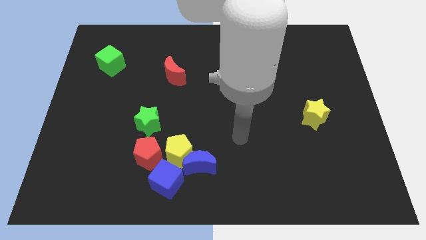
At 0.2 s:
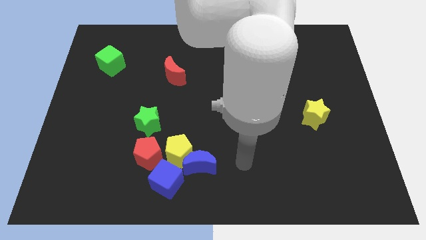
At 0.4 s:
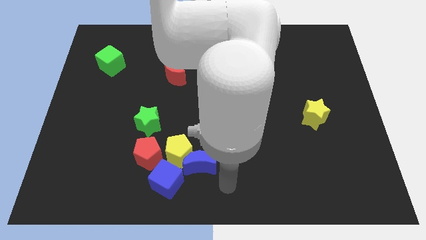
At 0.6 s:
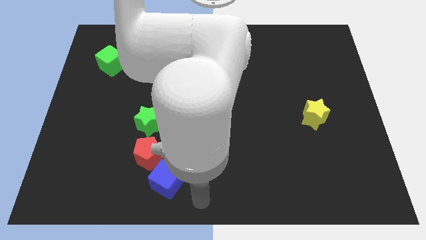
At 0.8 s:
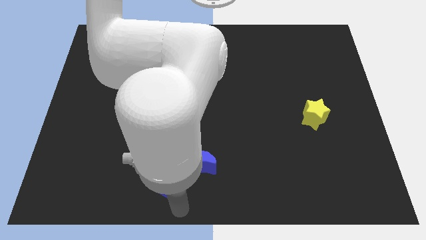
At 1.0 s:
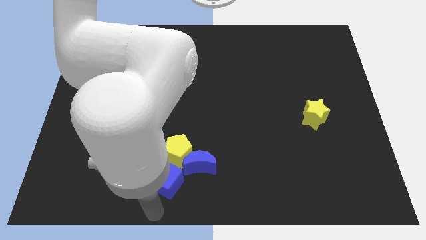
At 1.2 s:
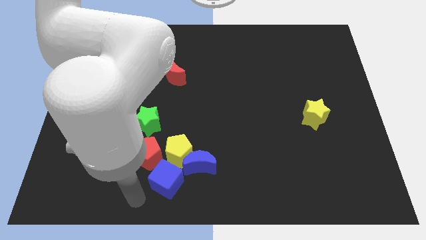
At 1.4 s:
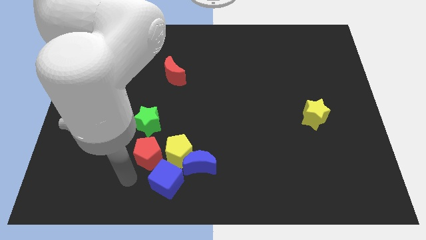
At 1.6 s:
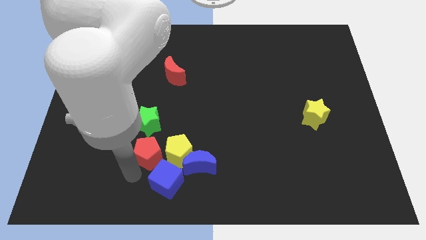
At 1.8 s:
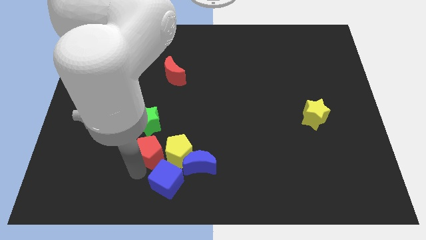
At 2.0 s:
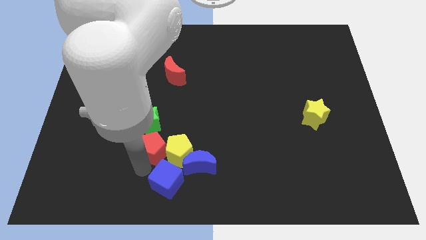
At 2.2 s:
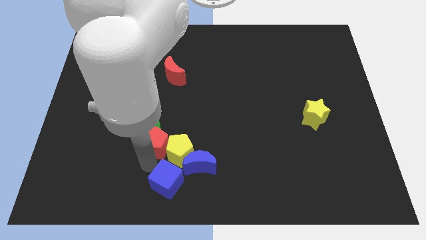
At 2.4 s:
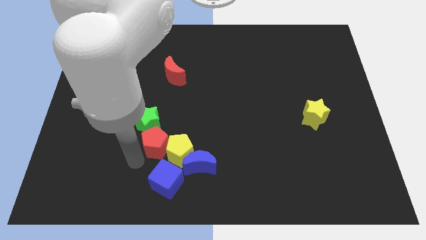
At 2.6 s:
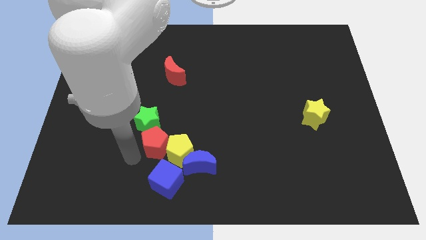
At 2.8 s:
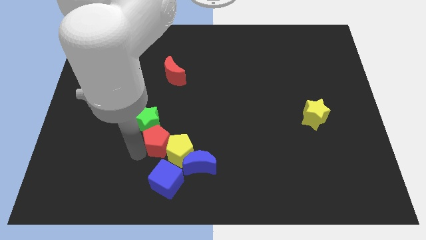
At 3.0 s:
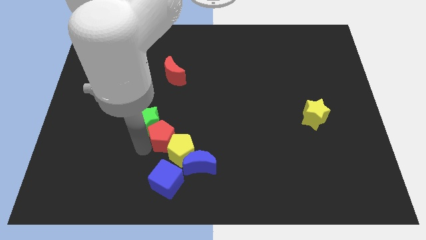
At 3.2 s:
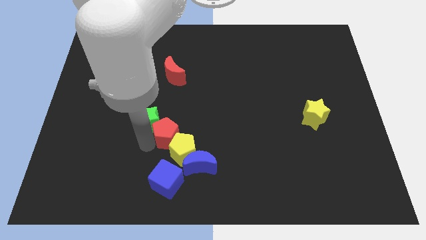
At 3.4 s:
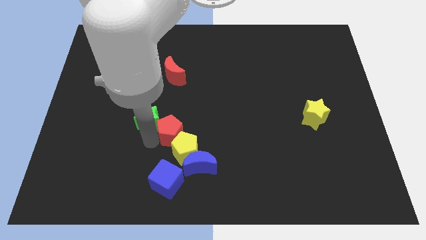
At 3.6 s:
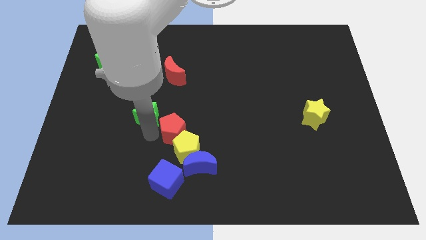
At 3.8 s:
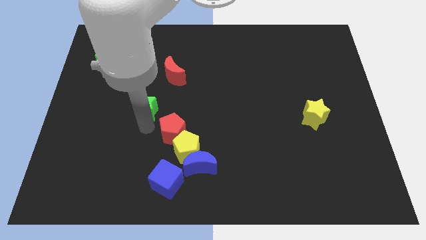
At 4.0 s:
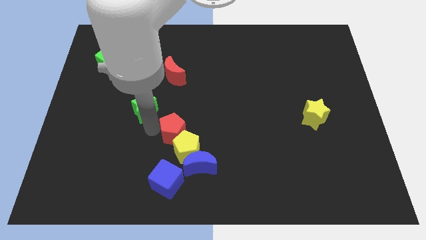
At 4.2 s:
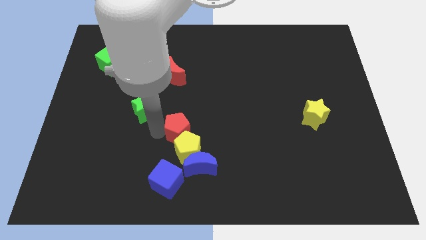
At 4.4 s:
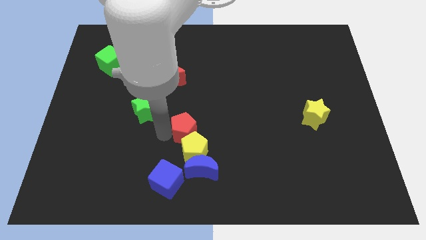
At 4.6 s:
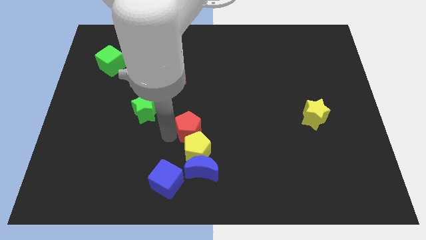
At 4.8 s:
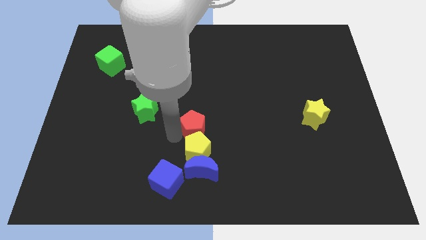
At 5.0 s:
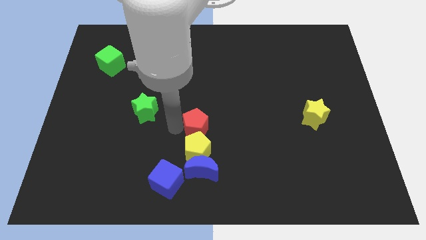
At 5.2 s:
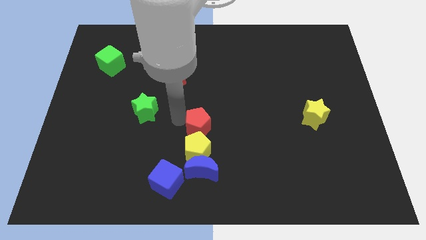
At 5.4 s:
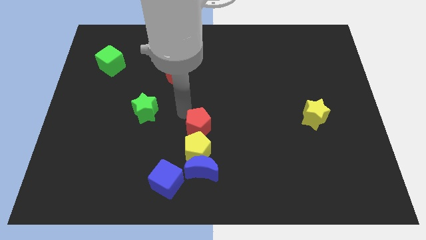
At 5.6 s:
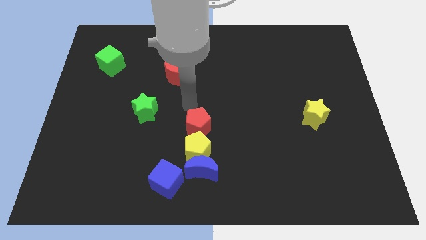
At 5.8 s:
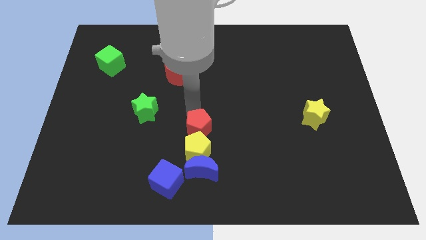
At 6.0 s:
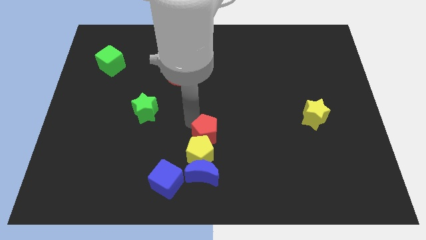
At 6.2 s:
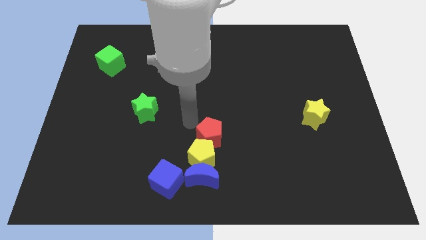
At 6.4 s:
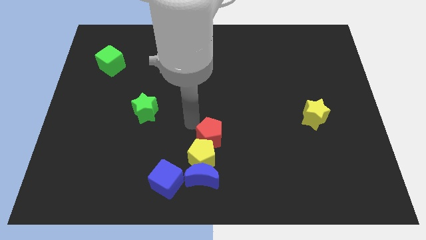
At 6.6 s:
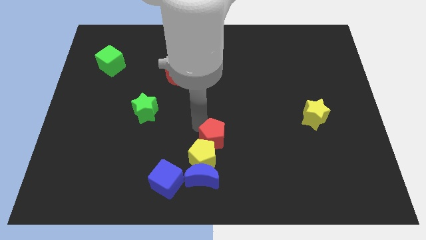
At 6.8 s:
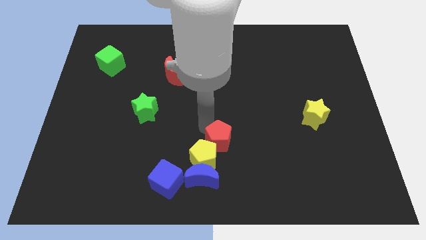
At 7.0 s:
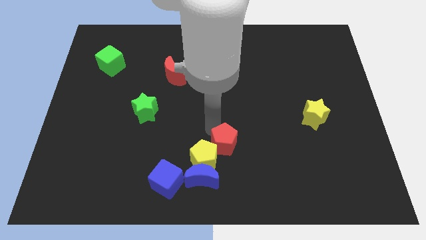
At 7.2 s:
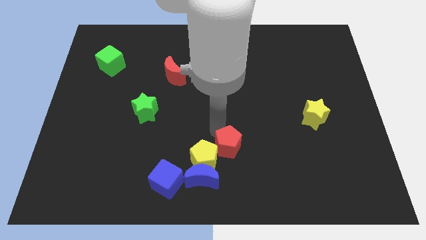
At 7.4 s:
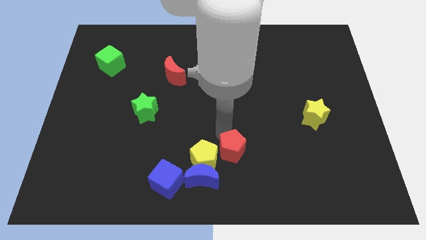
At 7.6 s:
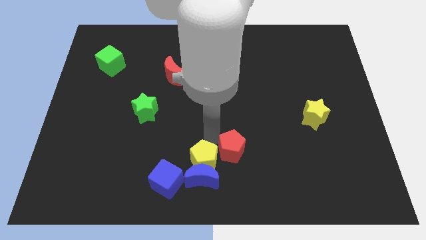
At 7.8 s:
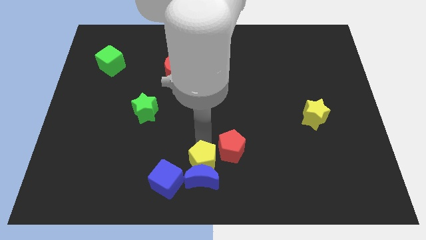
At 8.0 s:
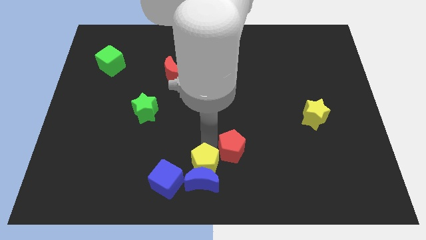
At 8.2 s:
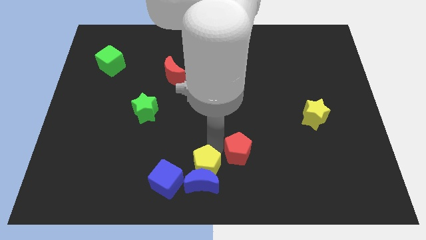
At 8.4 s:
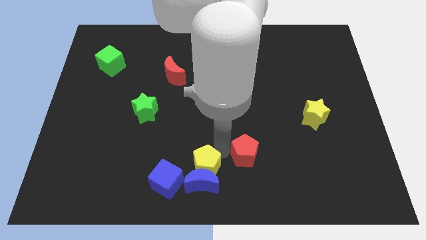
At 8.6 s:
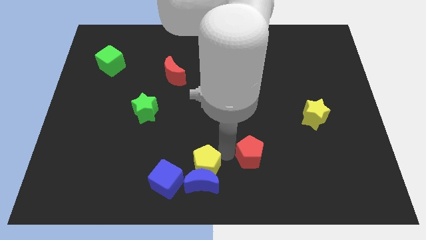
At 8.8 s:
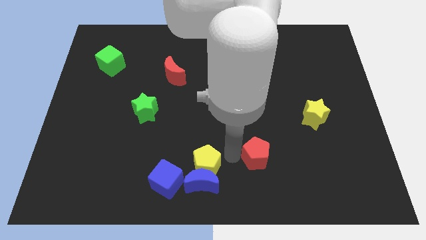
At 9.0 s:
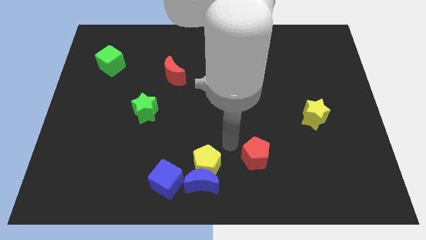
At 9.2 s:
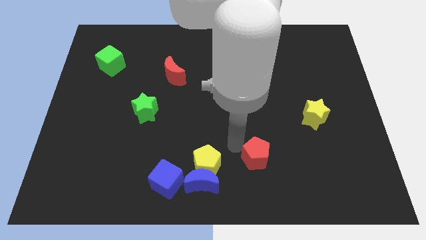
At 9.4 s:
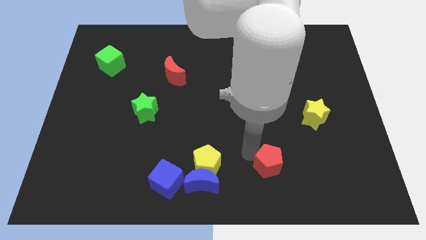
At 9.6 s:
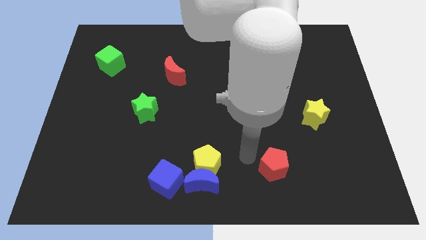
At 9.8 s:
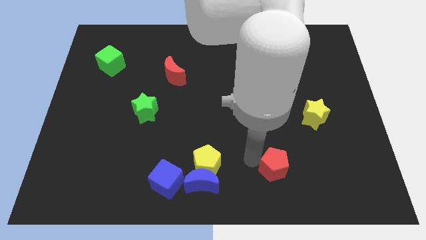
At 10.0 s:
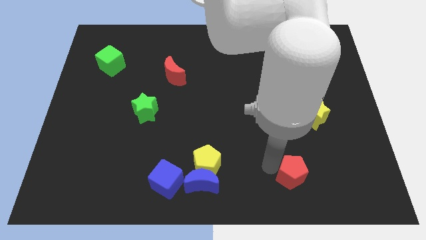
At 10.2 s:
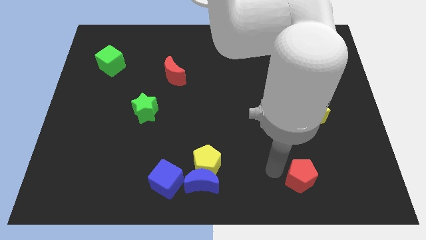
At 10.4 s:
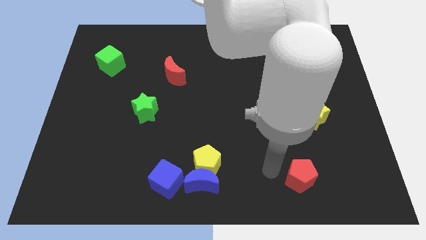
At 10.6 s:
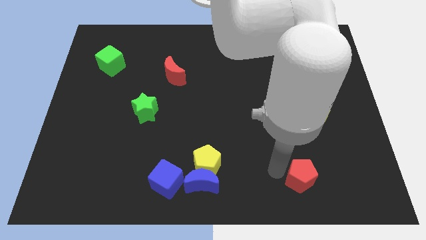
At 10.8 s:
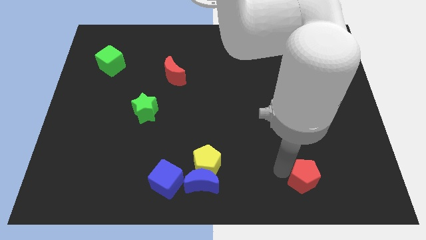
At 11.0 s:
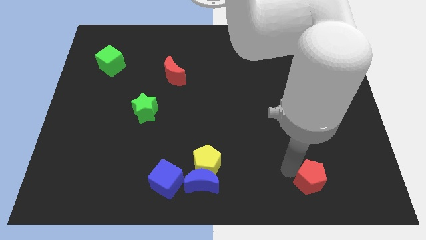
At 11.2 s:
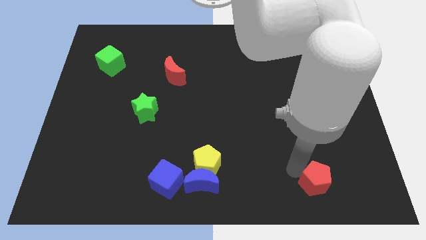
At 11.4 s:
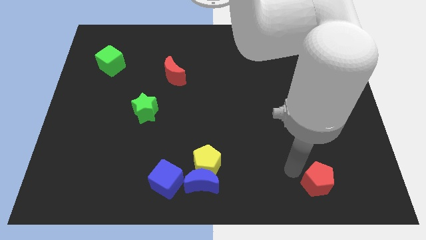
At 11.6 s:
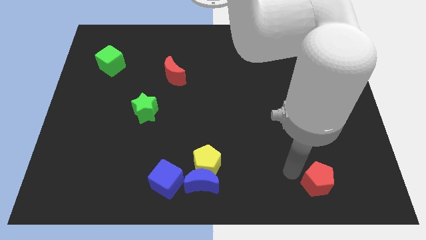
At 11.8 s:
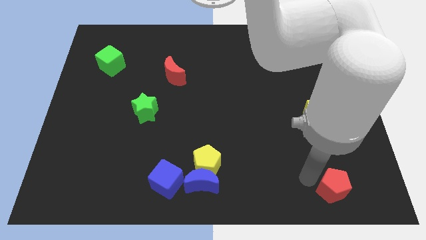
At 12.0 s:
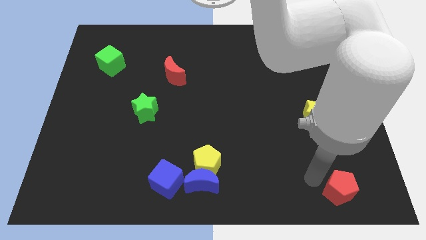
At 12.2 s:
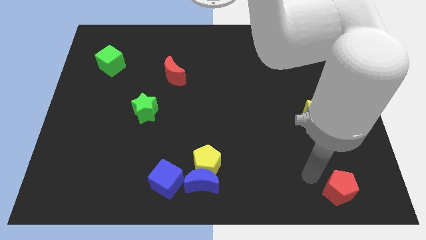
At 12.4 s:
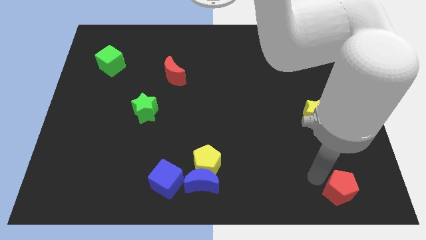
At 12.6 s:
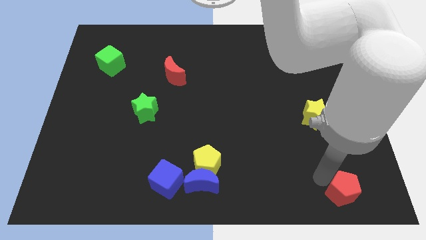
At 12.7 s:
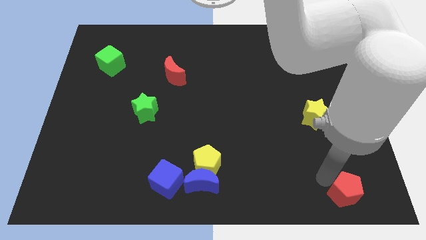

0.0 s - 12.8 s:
move the red pentagon to the bottom right corner
